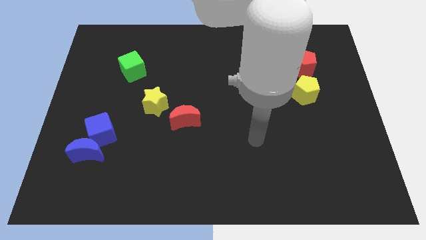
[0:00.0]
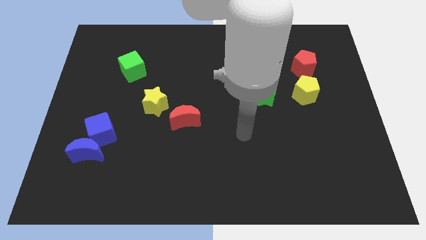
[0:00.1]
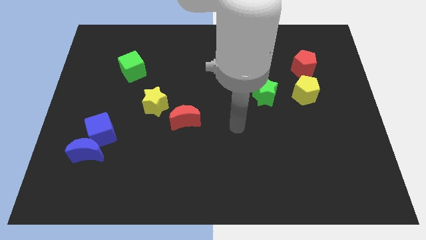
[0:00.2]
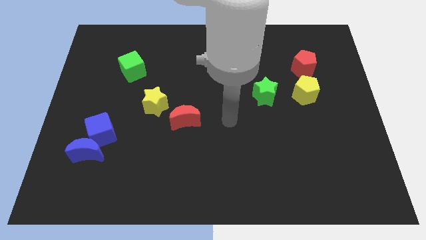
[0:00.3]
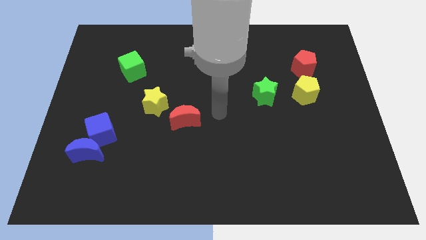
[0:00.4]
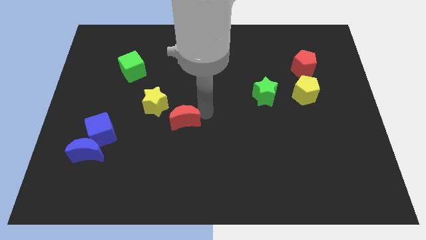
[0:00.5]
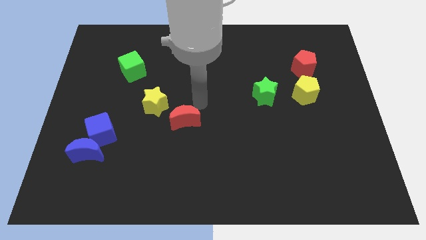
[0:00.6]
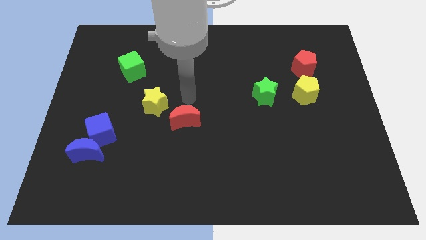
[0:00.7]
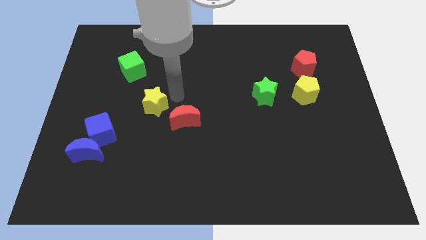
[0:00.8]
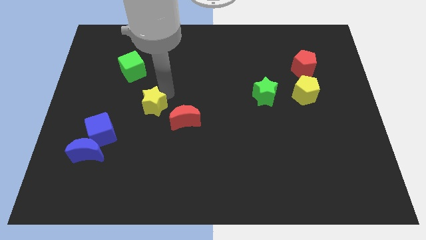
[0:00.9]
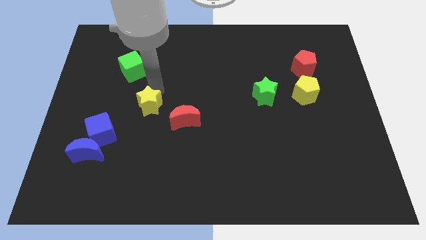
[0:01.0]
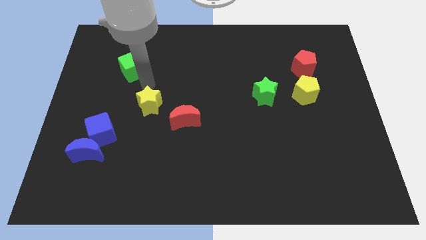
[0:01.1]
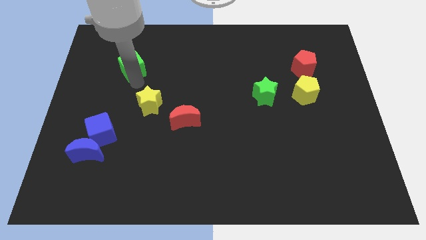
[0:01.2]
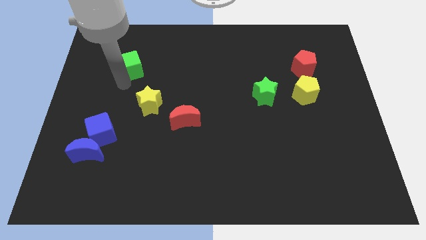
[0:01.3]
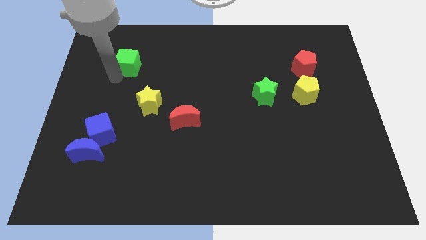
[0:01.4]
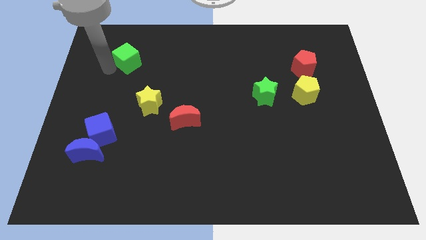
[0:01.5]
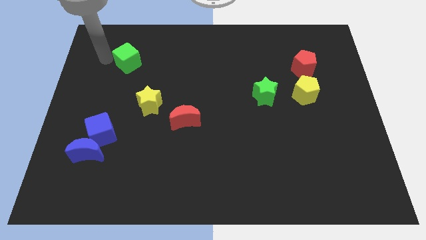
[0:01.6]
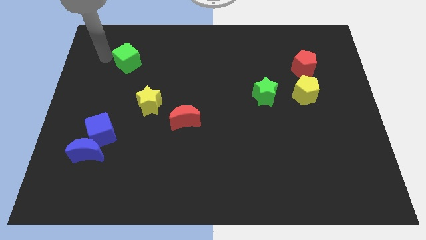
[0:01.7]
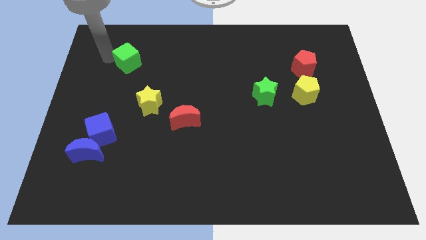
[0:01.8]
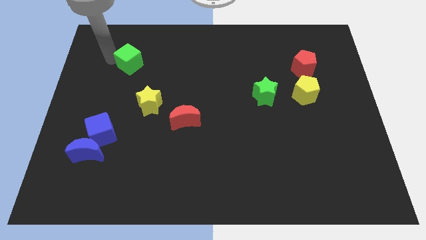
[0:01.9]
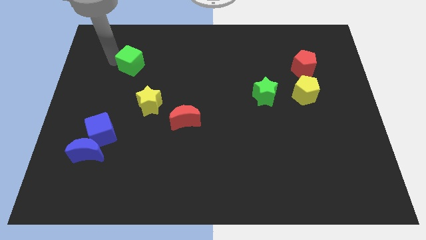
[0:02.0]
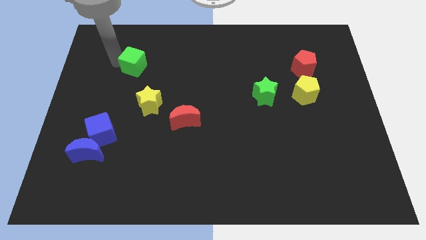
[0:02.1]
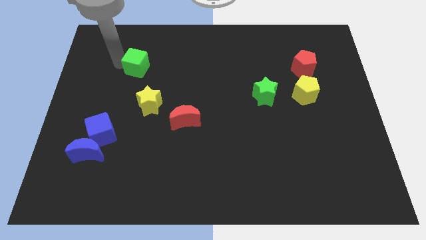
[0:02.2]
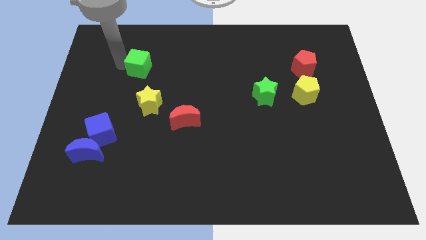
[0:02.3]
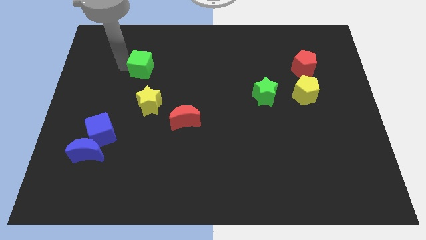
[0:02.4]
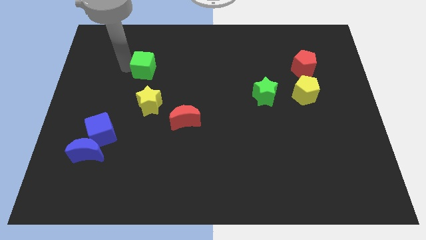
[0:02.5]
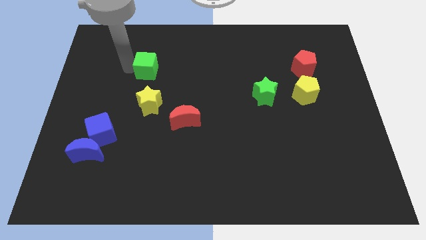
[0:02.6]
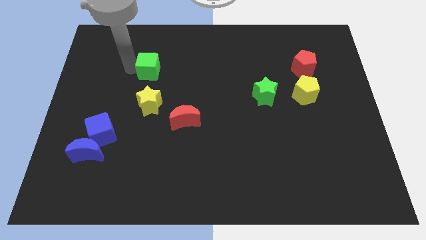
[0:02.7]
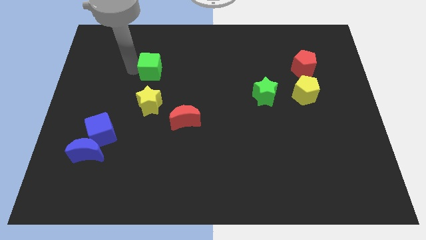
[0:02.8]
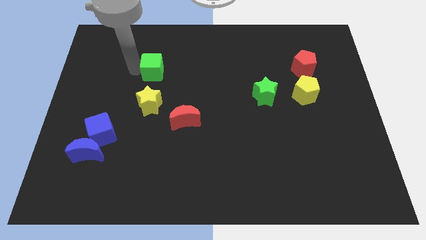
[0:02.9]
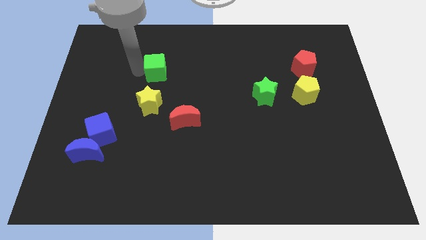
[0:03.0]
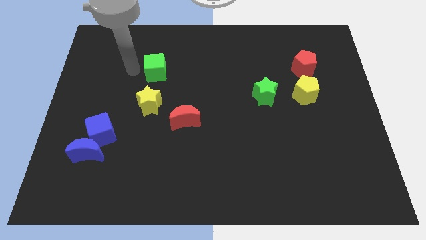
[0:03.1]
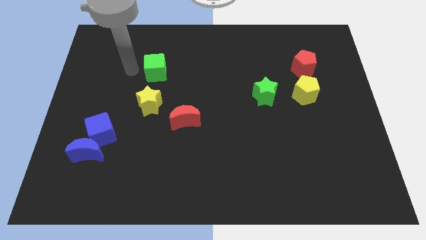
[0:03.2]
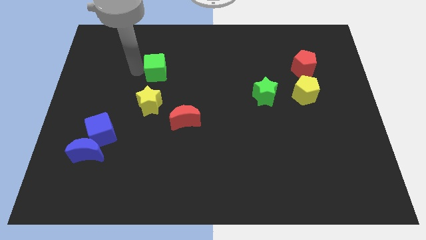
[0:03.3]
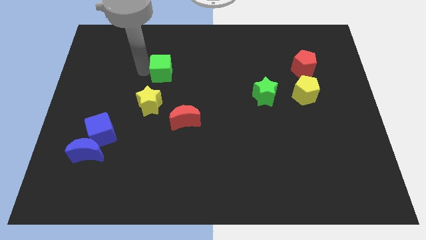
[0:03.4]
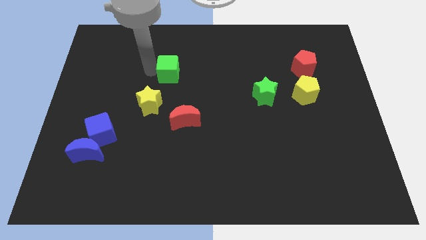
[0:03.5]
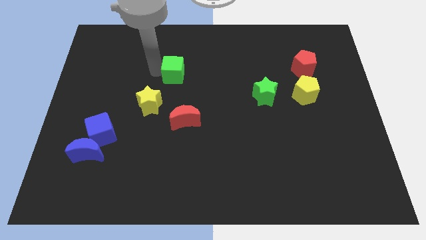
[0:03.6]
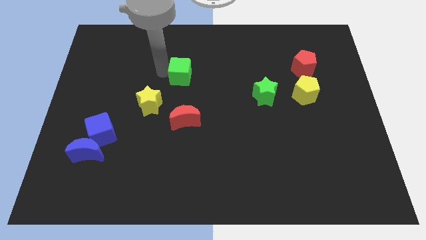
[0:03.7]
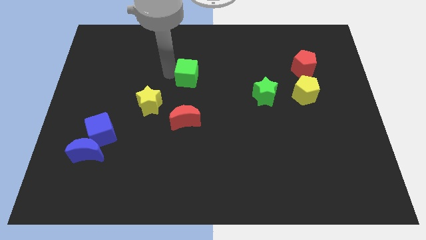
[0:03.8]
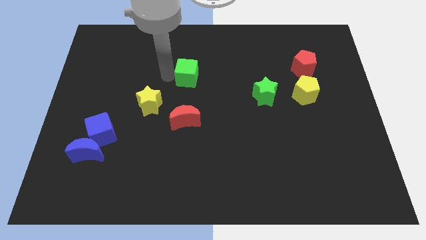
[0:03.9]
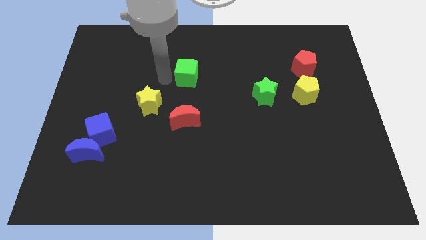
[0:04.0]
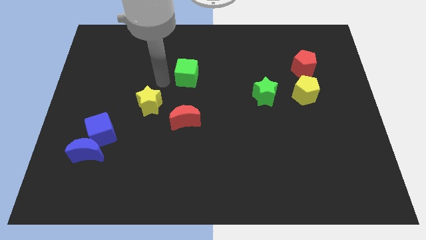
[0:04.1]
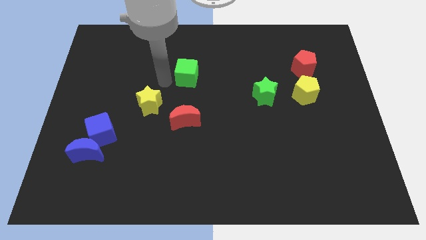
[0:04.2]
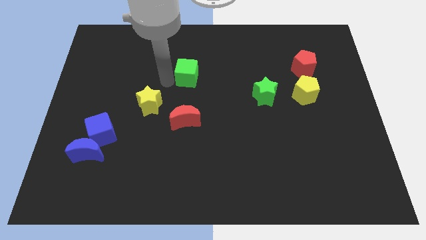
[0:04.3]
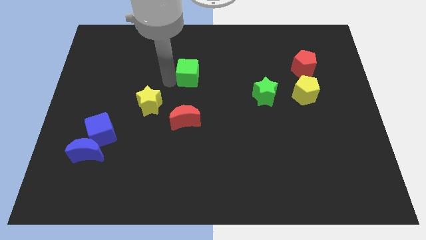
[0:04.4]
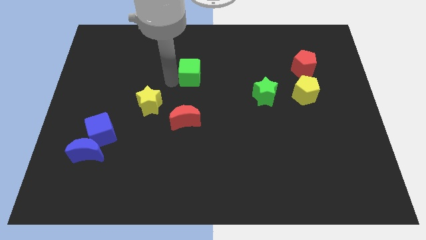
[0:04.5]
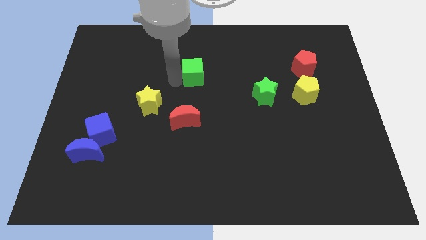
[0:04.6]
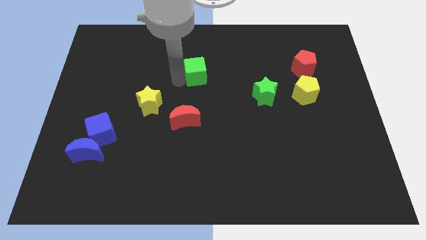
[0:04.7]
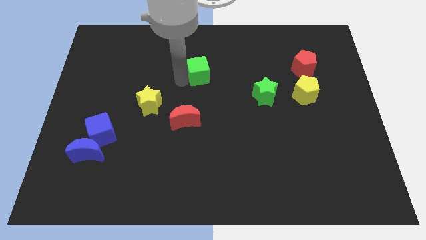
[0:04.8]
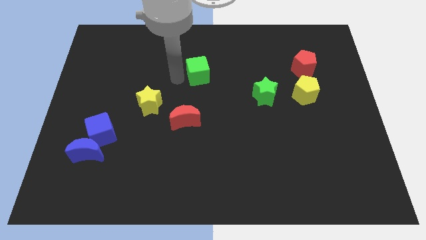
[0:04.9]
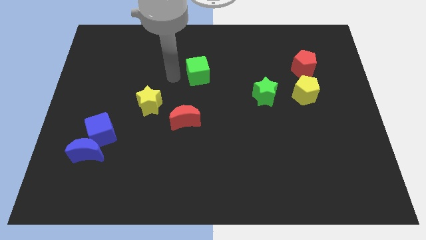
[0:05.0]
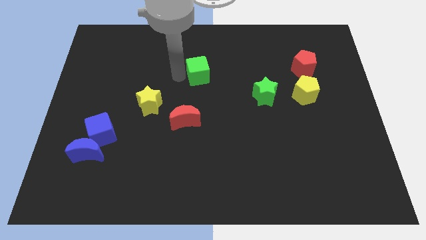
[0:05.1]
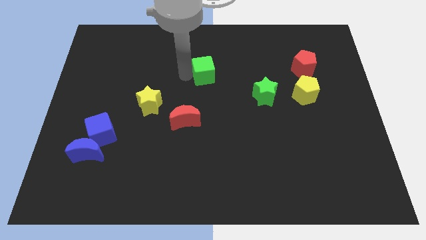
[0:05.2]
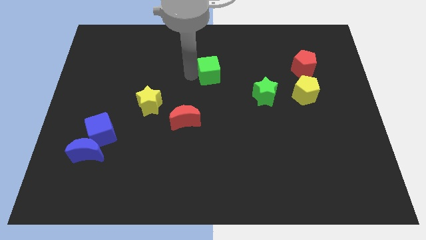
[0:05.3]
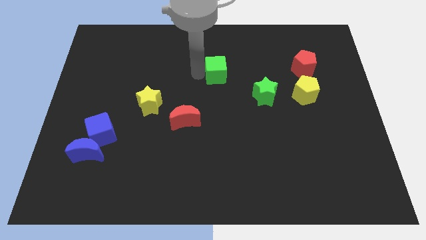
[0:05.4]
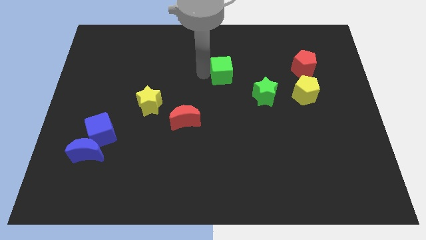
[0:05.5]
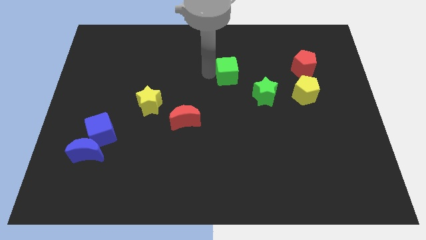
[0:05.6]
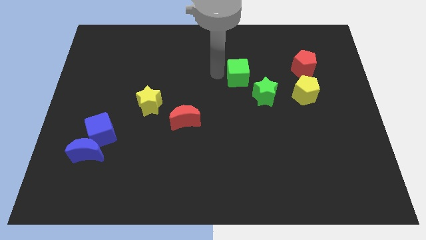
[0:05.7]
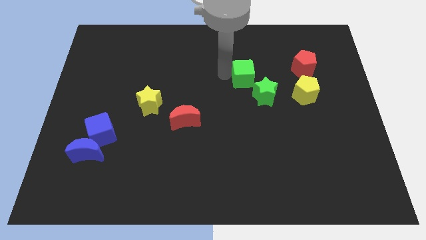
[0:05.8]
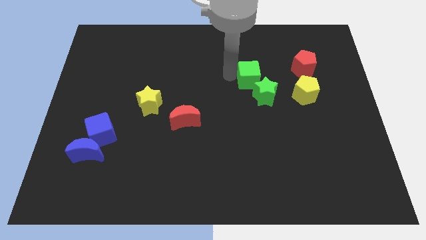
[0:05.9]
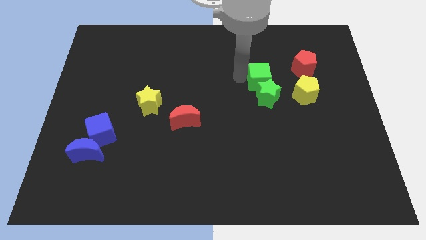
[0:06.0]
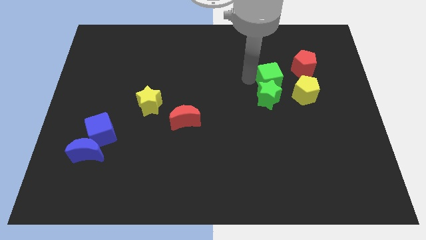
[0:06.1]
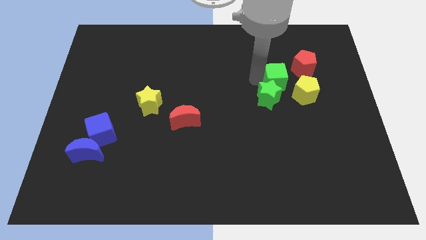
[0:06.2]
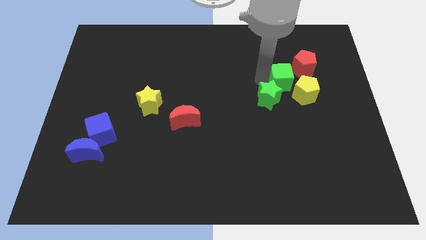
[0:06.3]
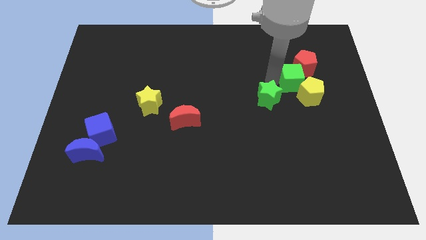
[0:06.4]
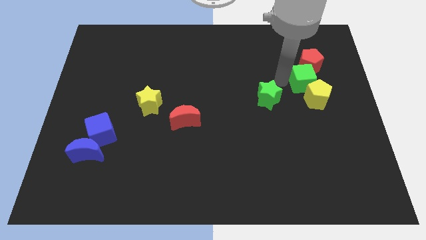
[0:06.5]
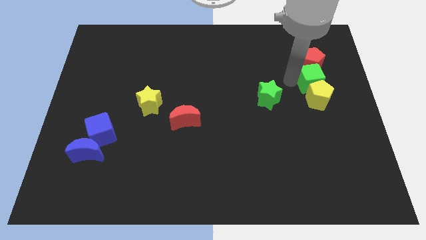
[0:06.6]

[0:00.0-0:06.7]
slide the green cube to the top right of the yellow pentagon

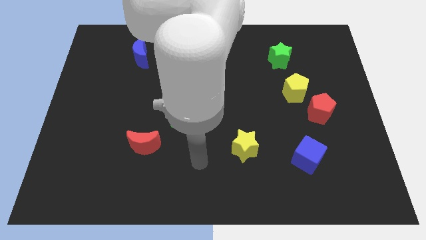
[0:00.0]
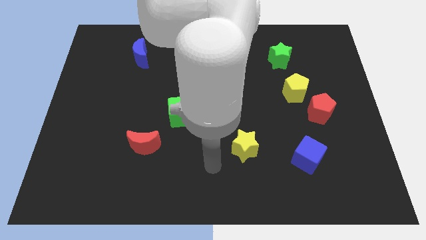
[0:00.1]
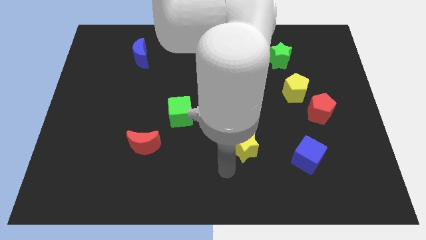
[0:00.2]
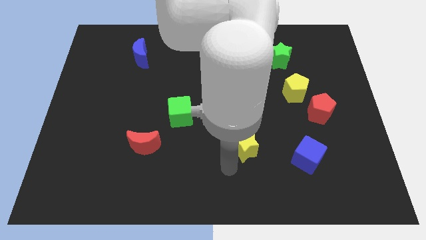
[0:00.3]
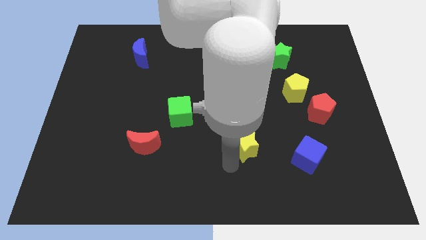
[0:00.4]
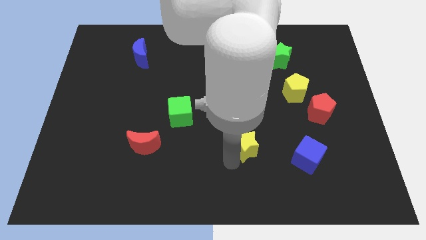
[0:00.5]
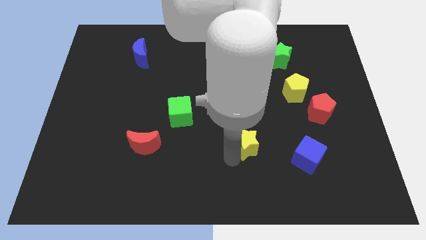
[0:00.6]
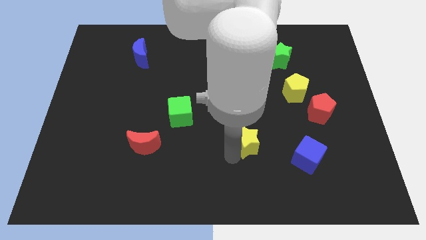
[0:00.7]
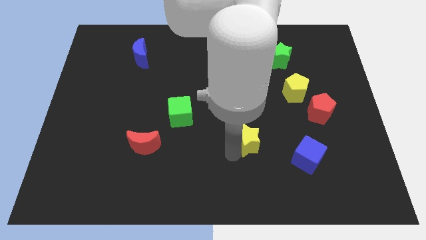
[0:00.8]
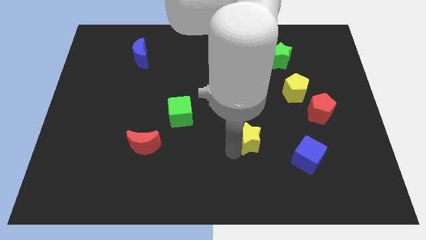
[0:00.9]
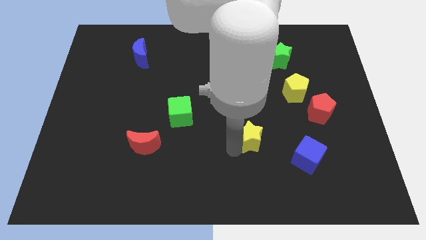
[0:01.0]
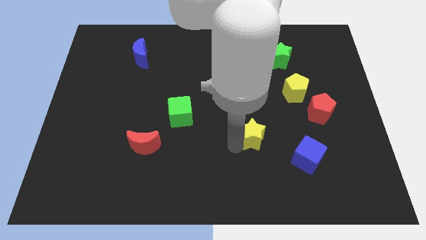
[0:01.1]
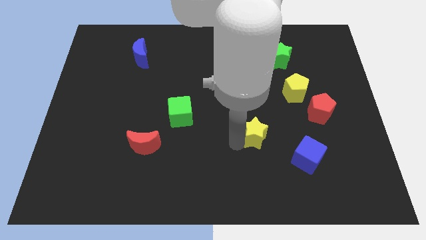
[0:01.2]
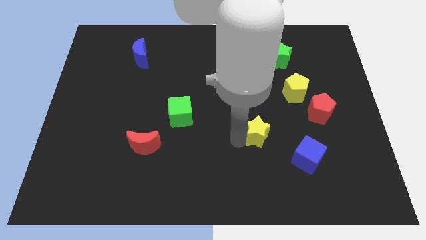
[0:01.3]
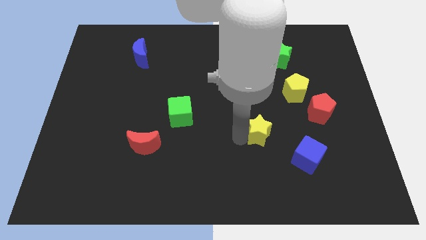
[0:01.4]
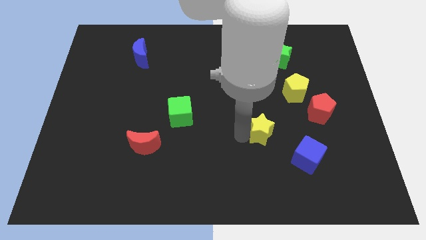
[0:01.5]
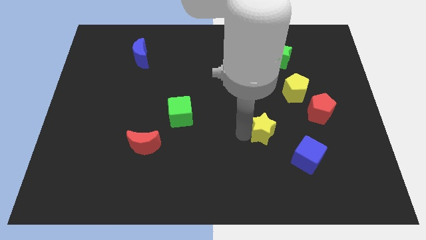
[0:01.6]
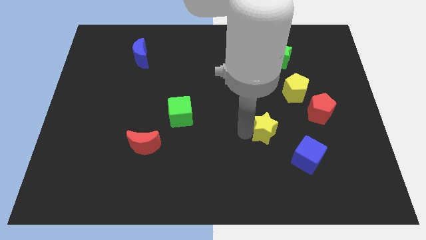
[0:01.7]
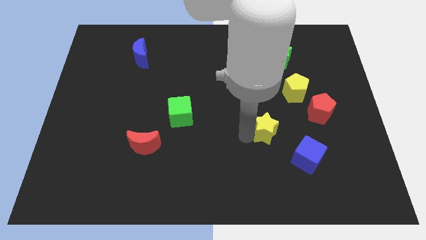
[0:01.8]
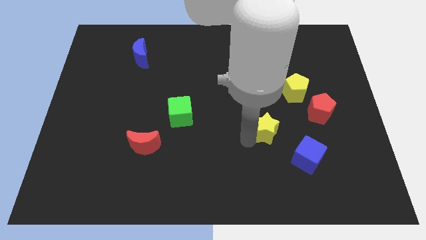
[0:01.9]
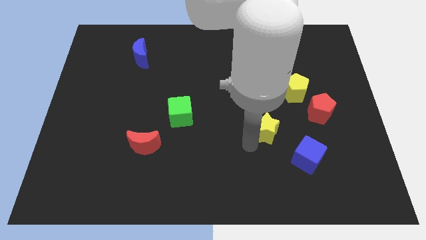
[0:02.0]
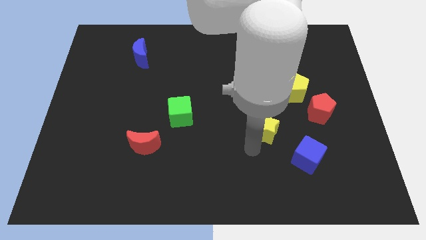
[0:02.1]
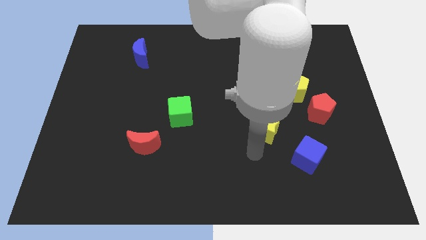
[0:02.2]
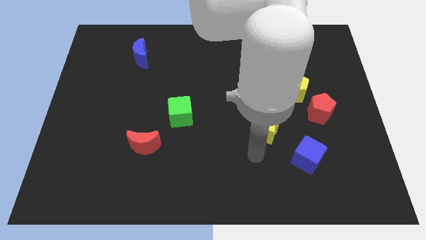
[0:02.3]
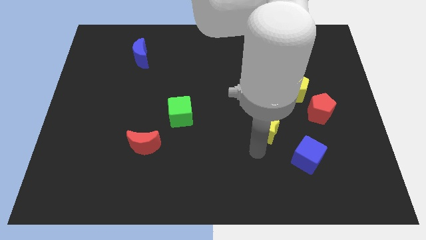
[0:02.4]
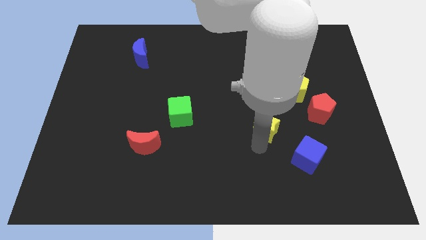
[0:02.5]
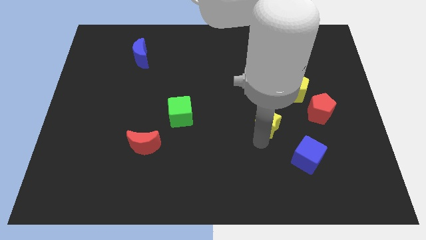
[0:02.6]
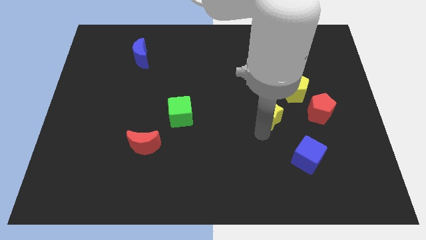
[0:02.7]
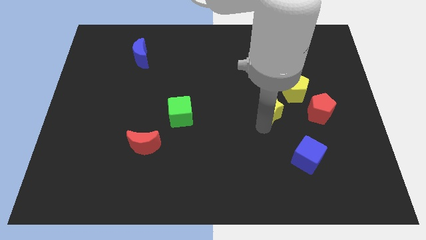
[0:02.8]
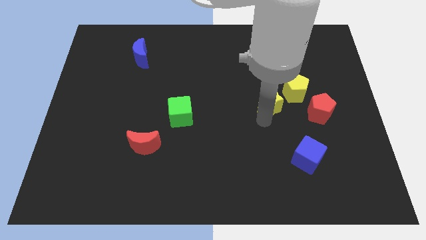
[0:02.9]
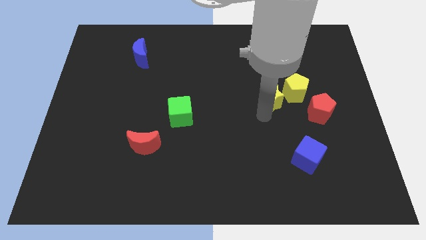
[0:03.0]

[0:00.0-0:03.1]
put the yellow star to the bottom of the green star
